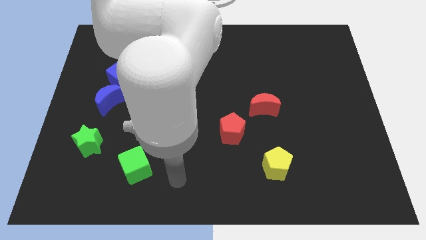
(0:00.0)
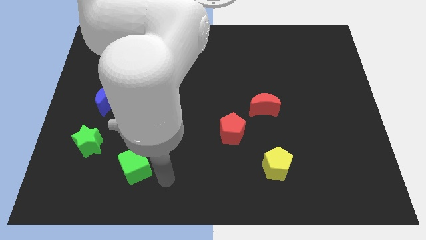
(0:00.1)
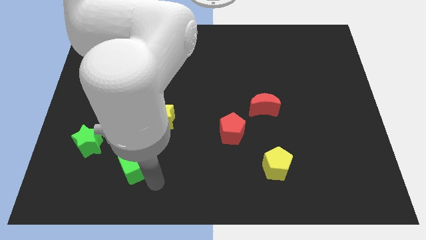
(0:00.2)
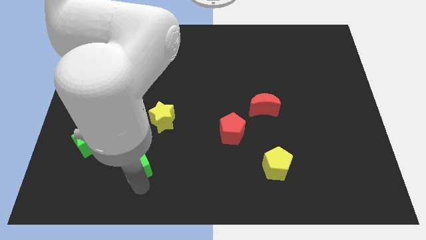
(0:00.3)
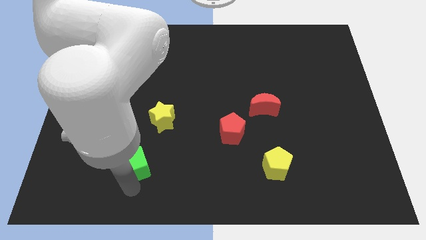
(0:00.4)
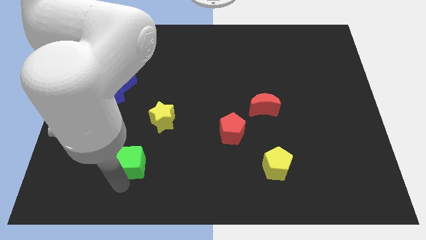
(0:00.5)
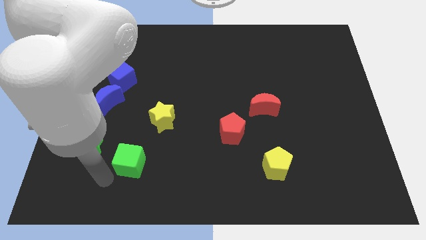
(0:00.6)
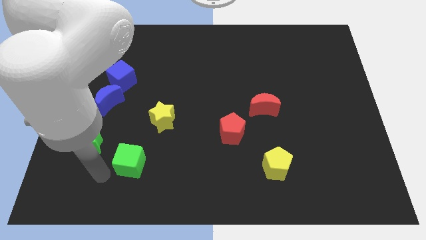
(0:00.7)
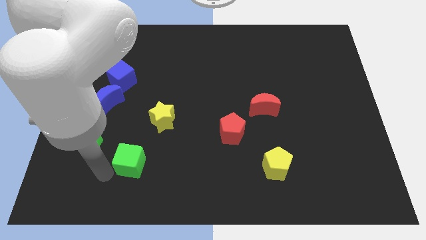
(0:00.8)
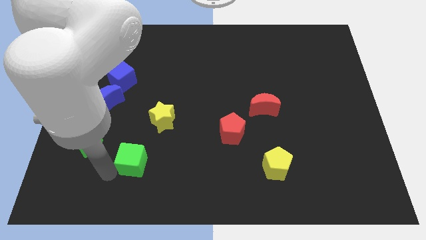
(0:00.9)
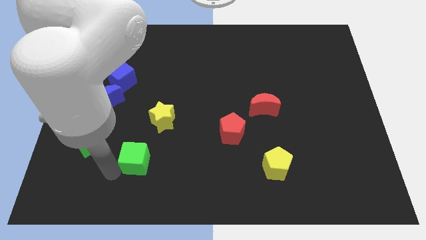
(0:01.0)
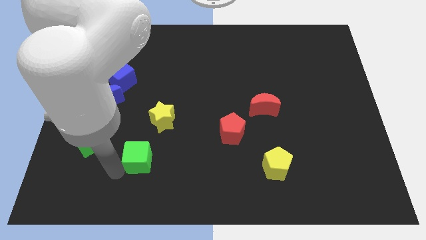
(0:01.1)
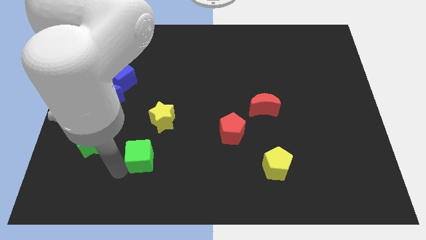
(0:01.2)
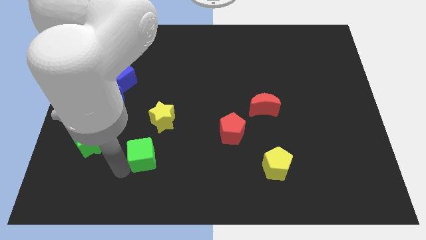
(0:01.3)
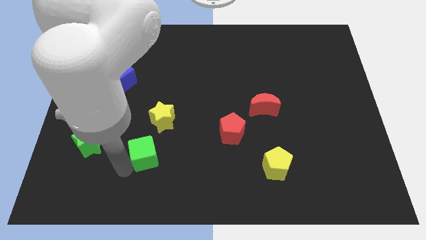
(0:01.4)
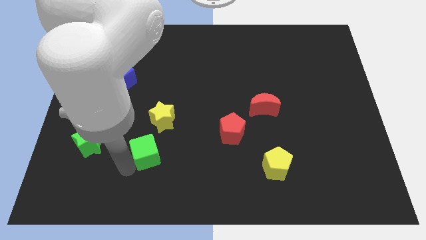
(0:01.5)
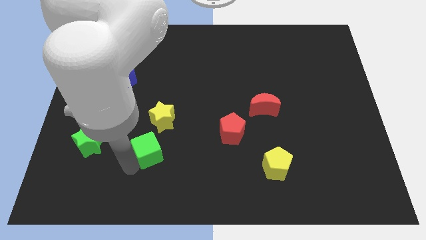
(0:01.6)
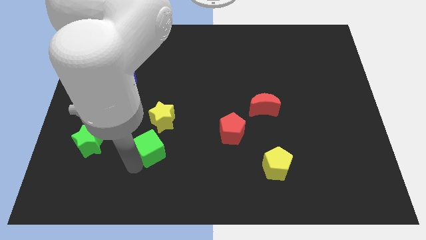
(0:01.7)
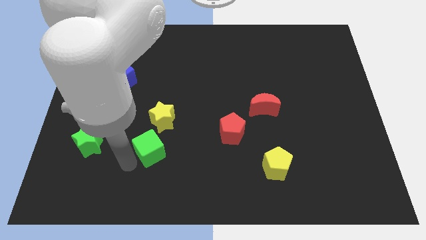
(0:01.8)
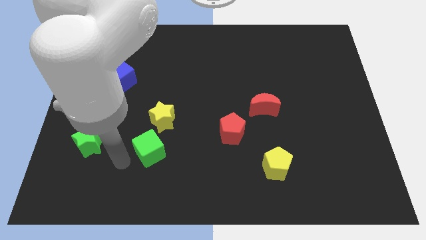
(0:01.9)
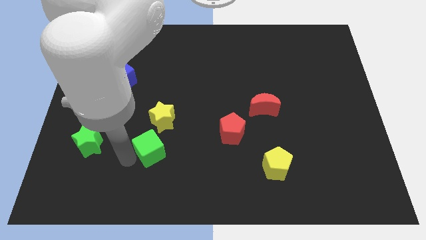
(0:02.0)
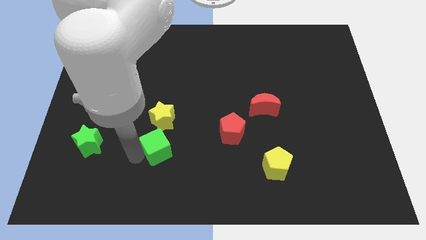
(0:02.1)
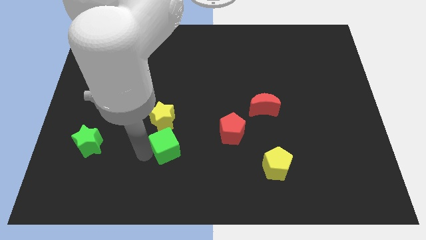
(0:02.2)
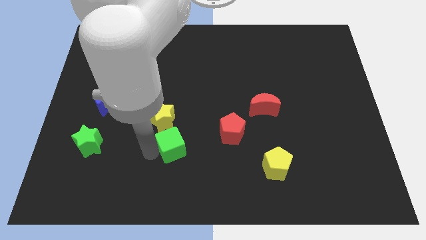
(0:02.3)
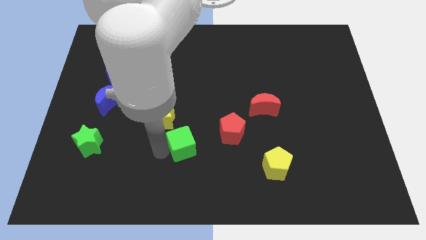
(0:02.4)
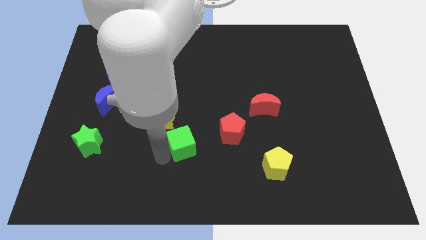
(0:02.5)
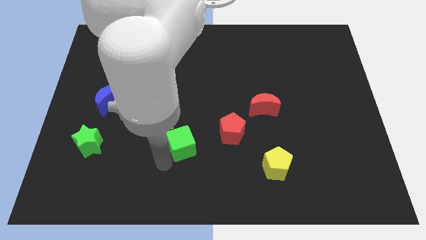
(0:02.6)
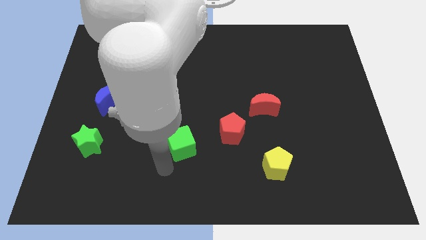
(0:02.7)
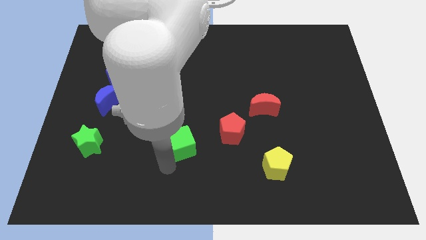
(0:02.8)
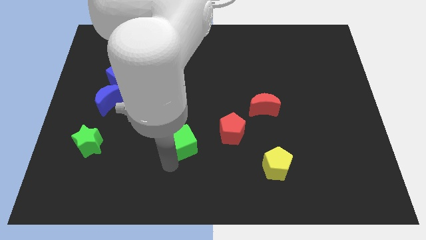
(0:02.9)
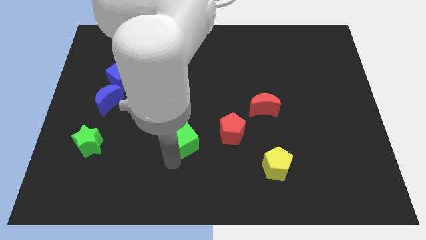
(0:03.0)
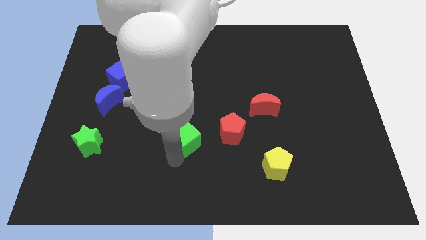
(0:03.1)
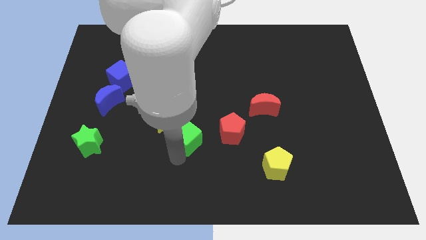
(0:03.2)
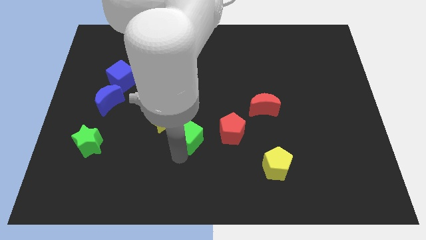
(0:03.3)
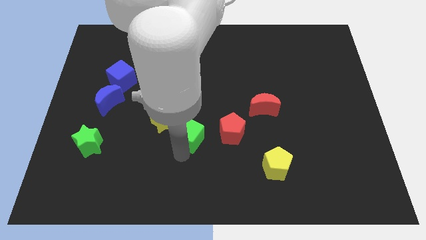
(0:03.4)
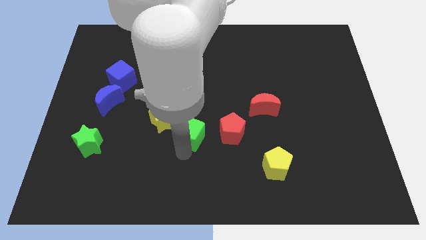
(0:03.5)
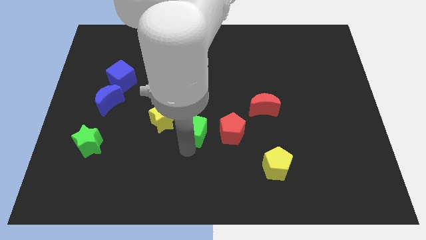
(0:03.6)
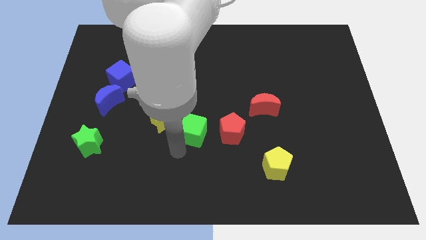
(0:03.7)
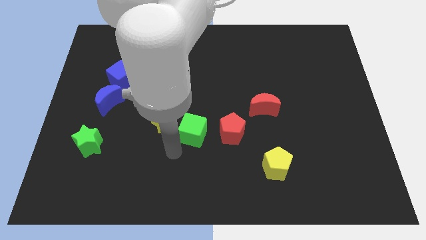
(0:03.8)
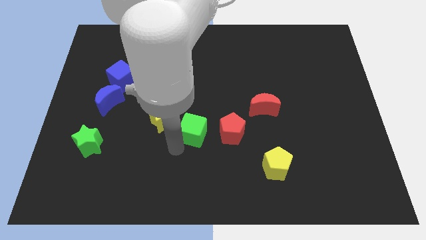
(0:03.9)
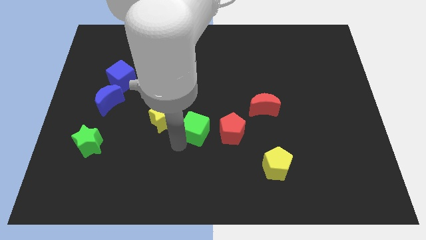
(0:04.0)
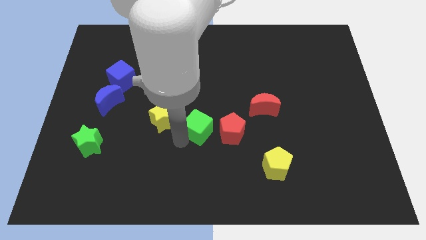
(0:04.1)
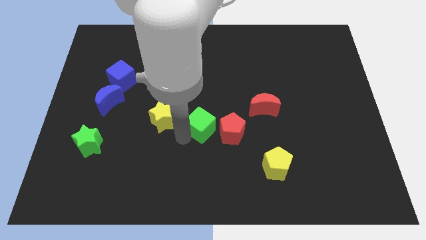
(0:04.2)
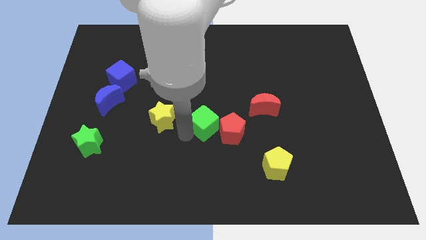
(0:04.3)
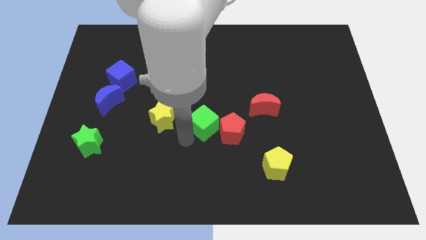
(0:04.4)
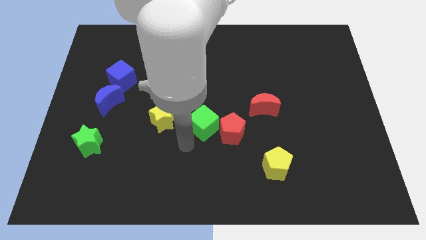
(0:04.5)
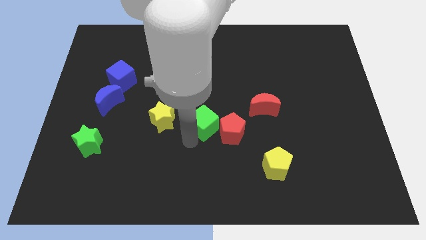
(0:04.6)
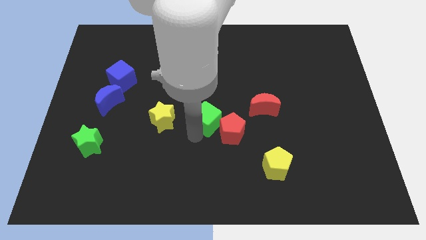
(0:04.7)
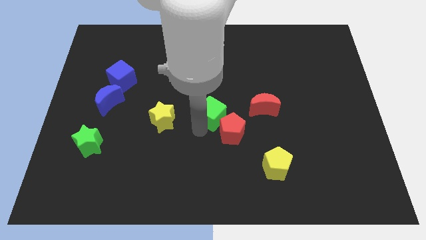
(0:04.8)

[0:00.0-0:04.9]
slide the green cube upwards and to the right

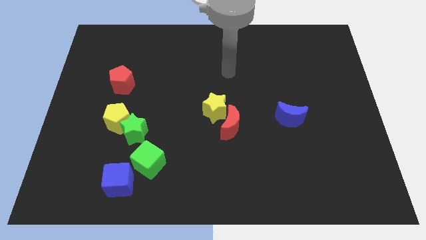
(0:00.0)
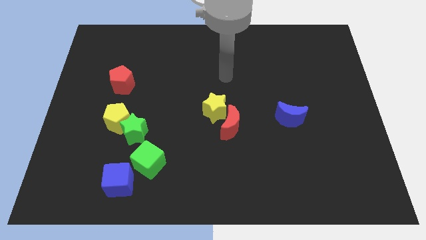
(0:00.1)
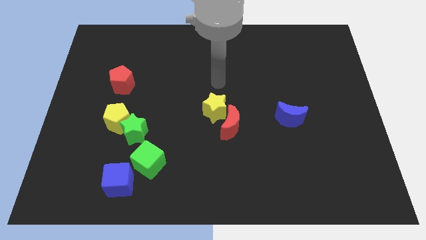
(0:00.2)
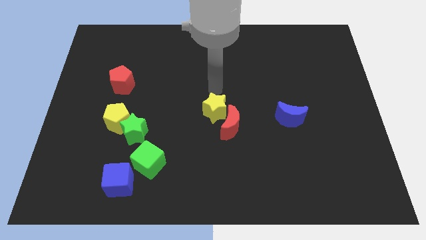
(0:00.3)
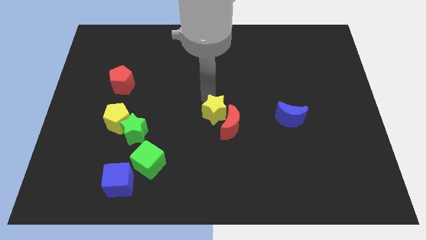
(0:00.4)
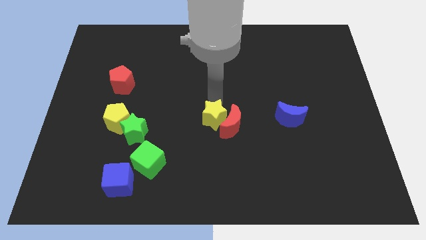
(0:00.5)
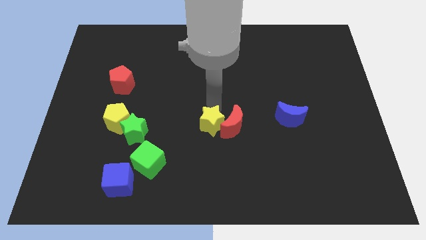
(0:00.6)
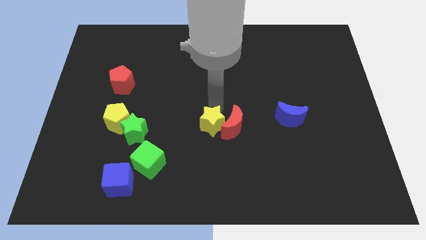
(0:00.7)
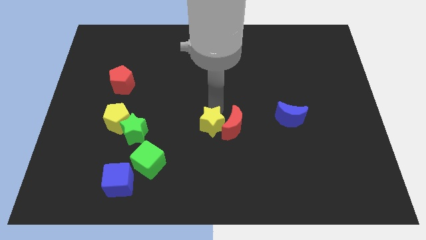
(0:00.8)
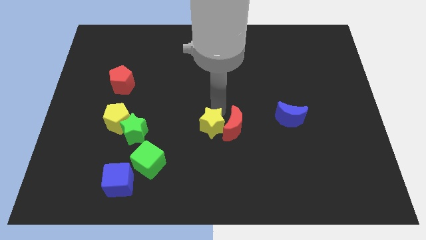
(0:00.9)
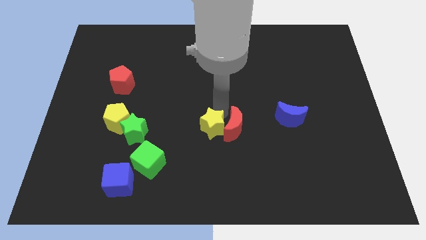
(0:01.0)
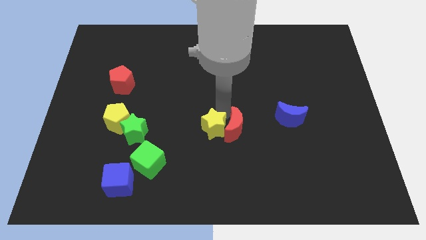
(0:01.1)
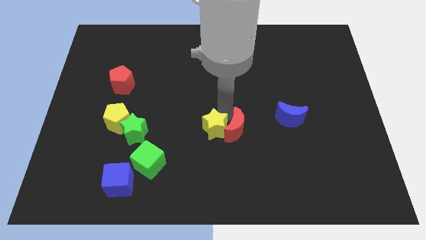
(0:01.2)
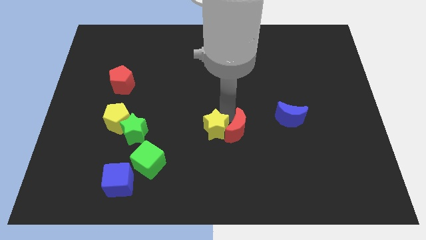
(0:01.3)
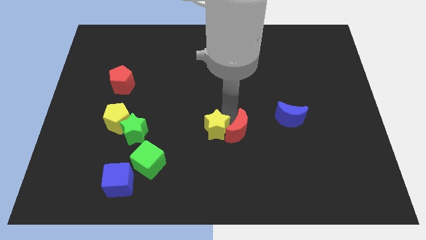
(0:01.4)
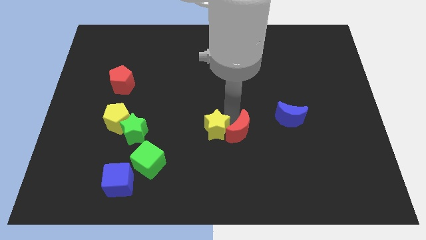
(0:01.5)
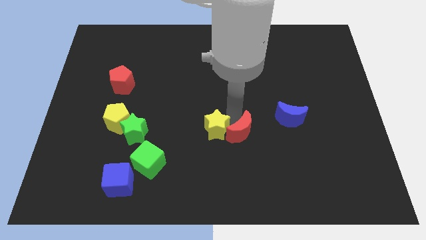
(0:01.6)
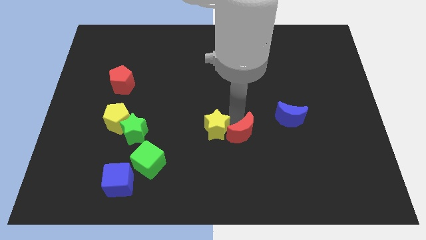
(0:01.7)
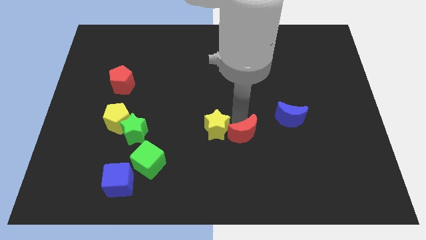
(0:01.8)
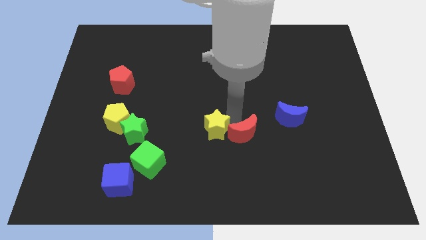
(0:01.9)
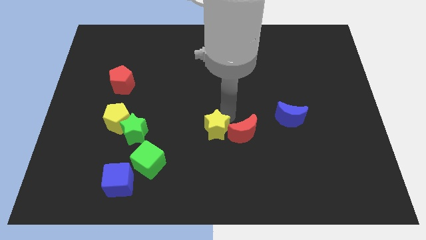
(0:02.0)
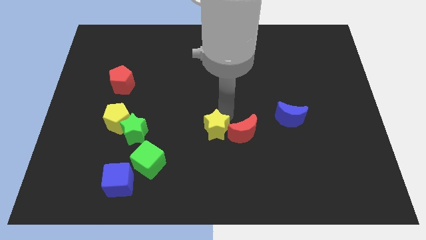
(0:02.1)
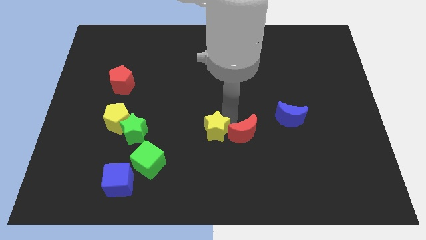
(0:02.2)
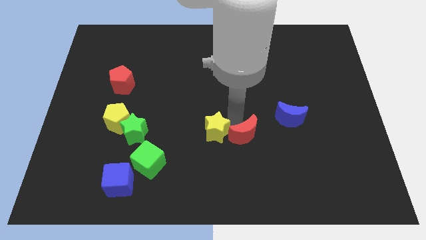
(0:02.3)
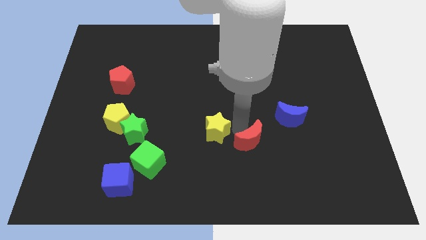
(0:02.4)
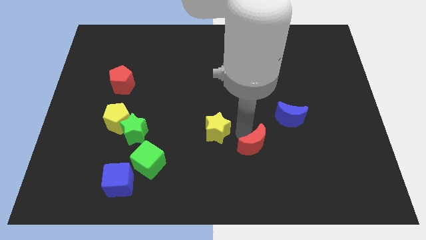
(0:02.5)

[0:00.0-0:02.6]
slightly move the red moon downwards and right diagonally

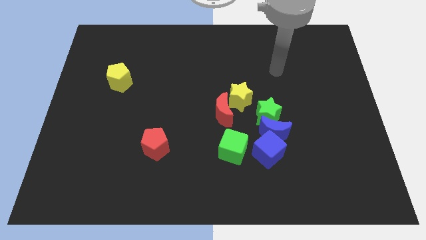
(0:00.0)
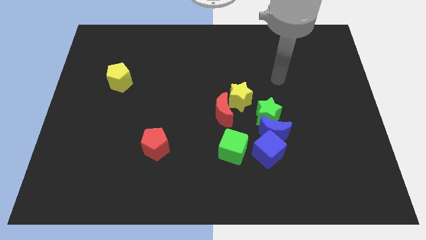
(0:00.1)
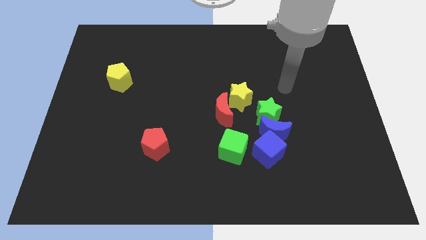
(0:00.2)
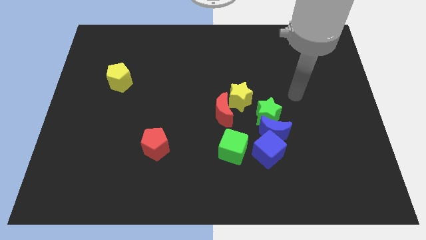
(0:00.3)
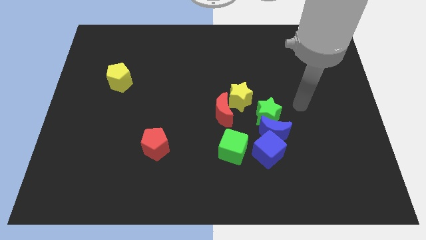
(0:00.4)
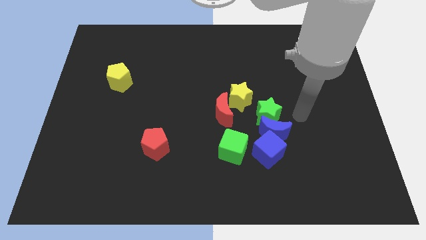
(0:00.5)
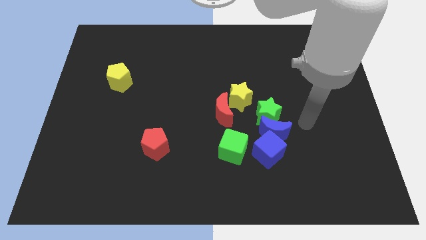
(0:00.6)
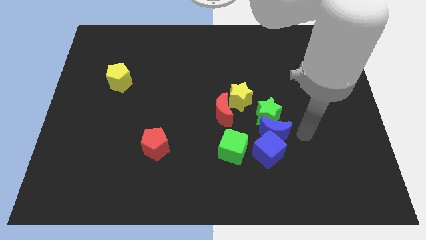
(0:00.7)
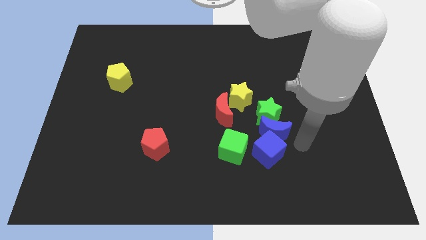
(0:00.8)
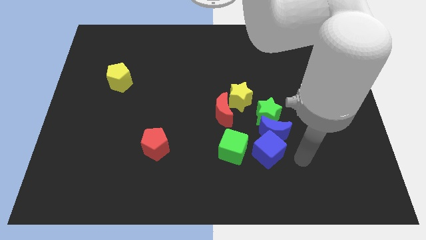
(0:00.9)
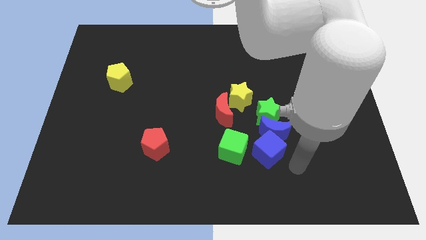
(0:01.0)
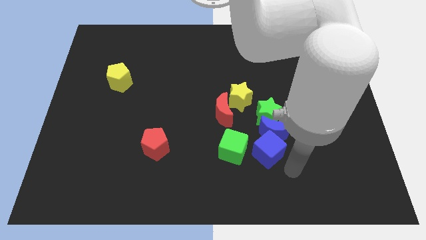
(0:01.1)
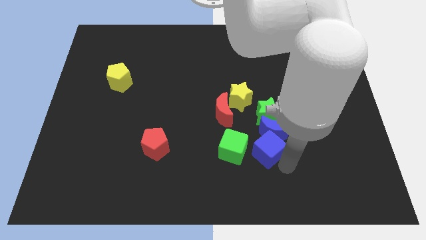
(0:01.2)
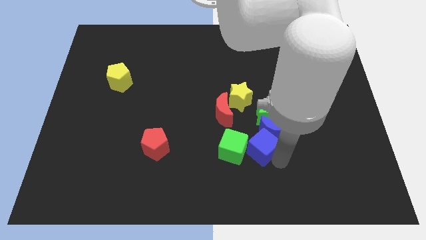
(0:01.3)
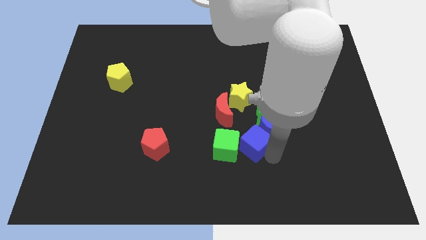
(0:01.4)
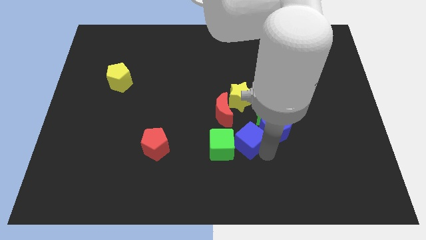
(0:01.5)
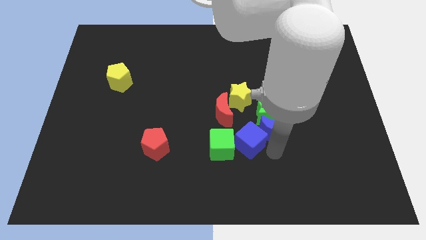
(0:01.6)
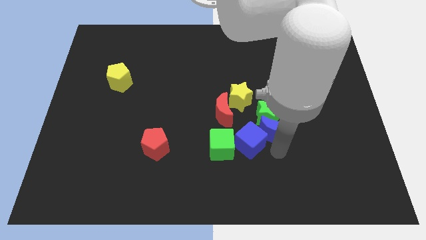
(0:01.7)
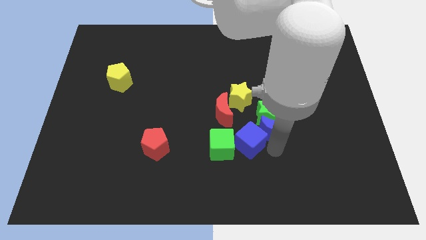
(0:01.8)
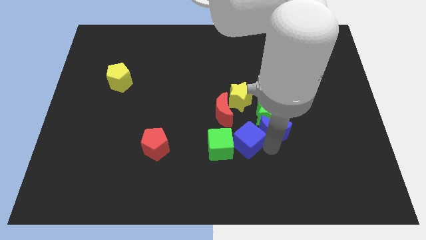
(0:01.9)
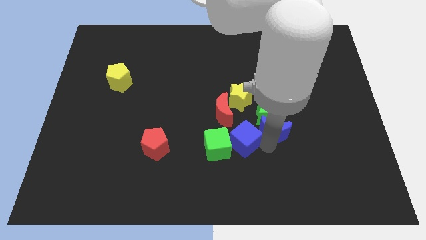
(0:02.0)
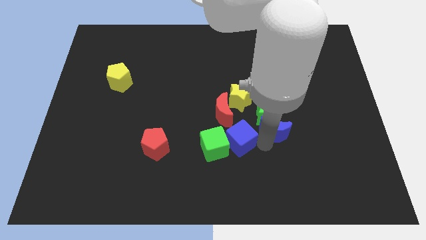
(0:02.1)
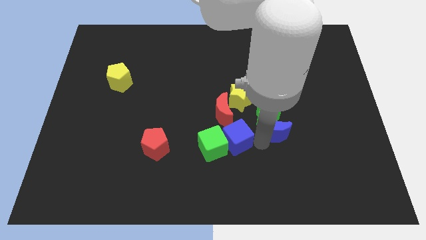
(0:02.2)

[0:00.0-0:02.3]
slightly move the blue cube upwards and left
